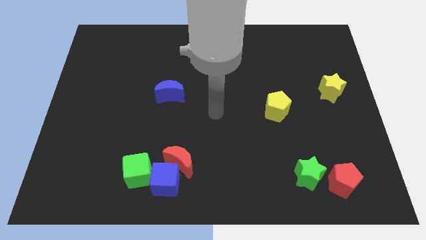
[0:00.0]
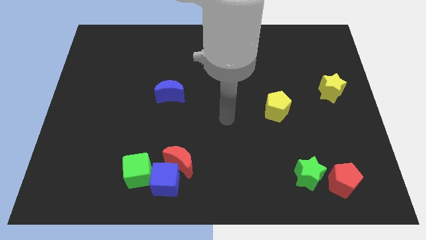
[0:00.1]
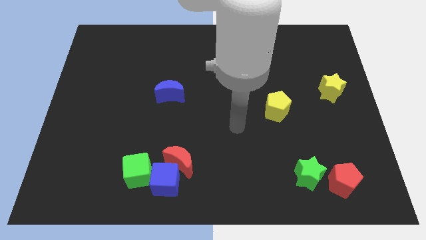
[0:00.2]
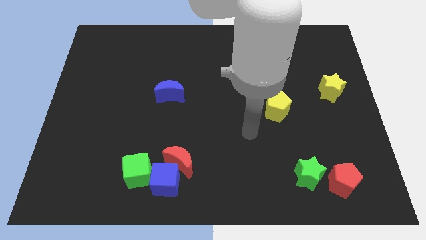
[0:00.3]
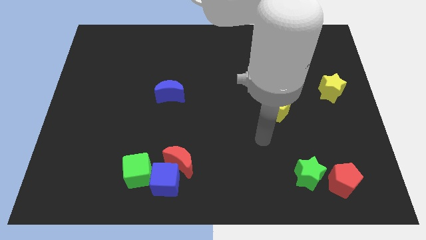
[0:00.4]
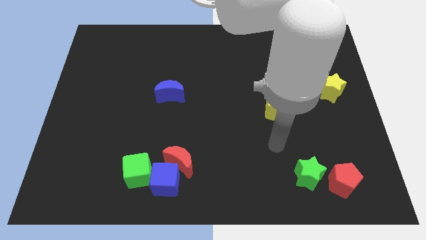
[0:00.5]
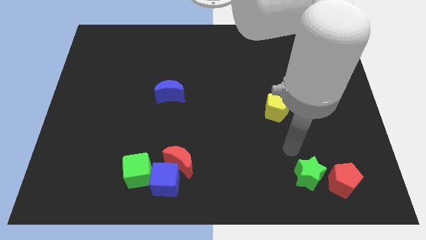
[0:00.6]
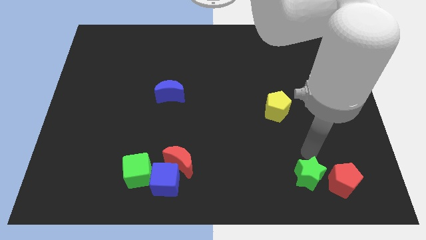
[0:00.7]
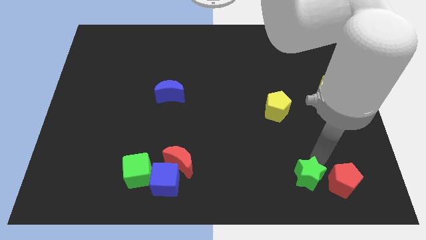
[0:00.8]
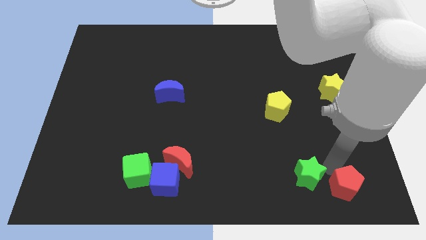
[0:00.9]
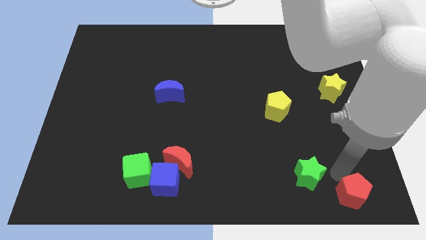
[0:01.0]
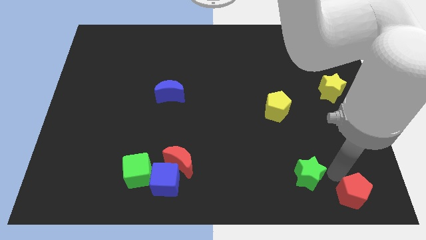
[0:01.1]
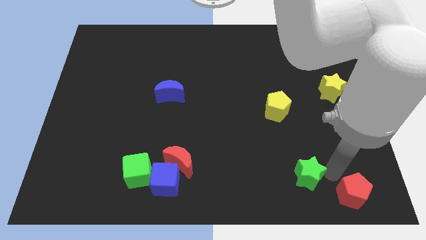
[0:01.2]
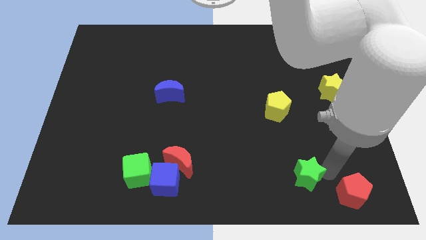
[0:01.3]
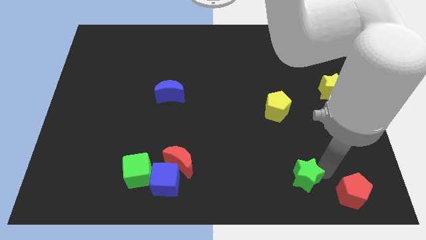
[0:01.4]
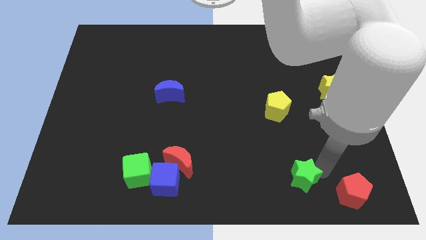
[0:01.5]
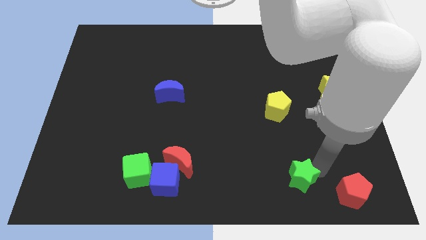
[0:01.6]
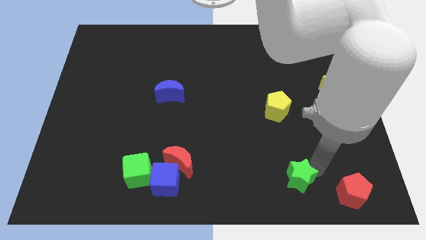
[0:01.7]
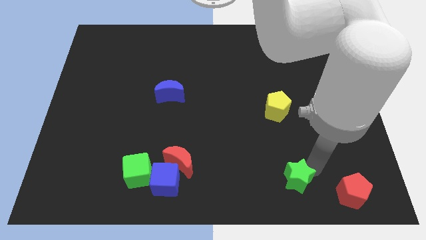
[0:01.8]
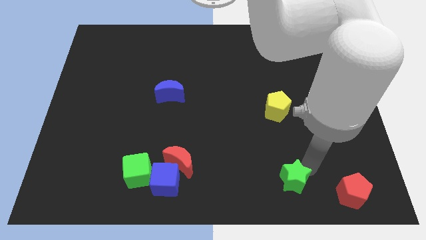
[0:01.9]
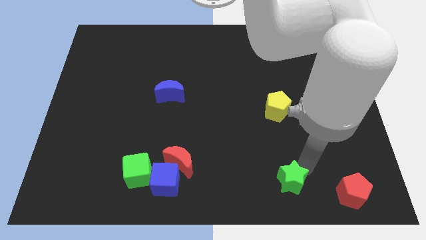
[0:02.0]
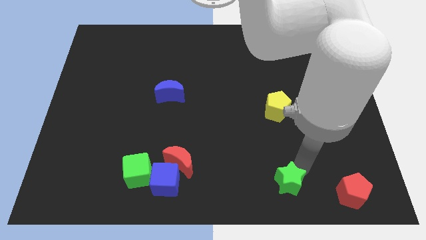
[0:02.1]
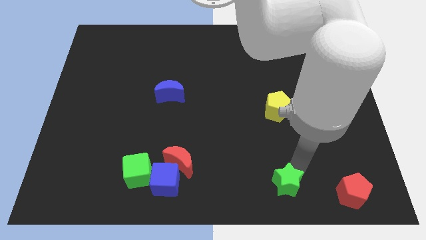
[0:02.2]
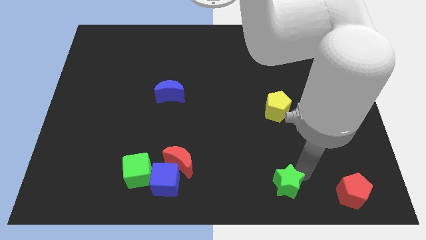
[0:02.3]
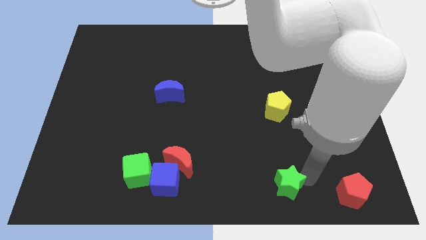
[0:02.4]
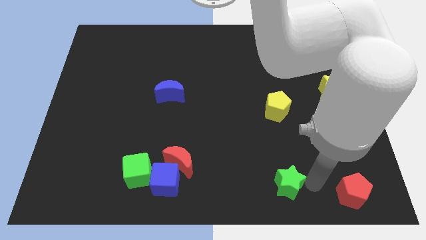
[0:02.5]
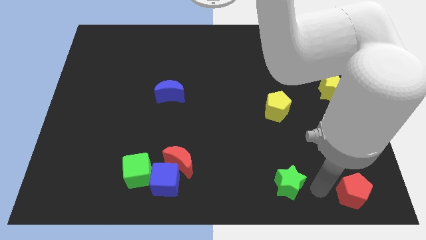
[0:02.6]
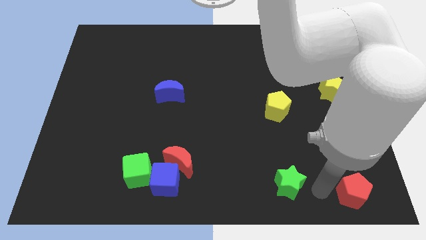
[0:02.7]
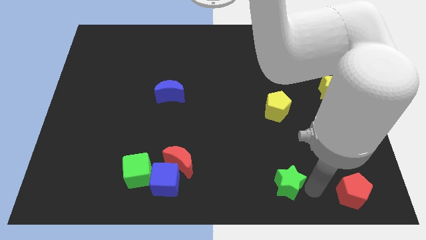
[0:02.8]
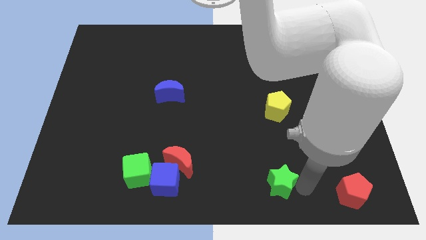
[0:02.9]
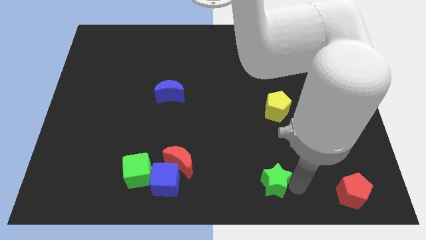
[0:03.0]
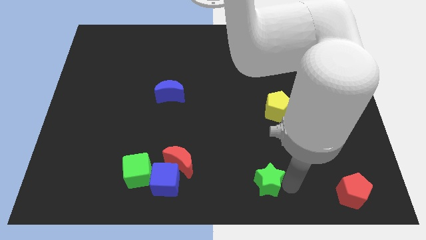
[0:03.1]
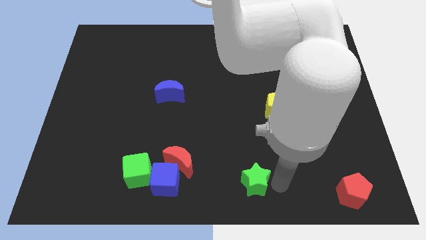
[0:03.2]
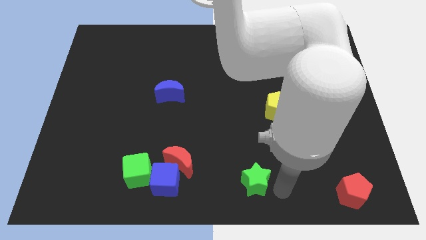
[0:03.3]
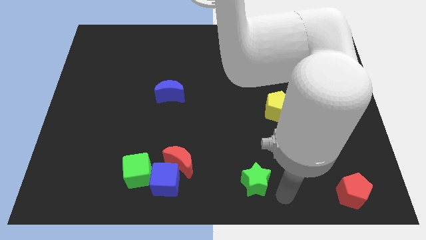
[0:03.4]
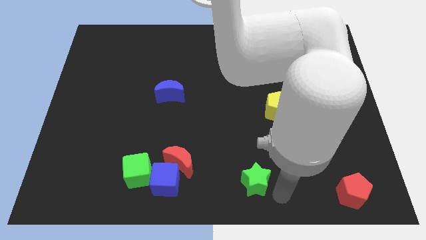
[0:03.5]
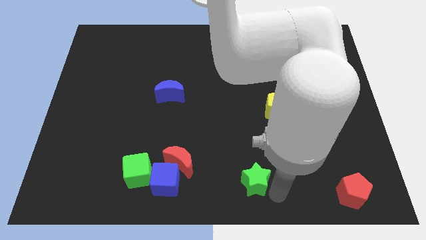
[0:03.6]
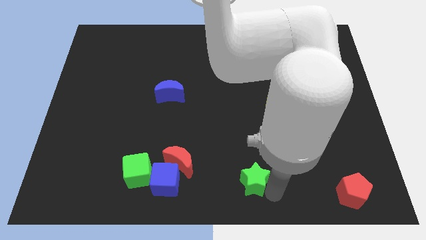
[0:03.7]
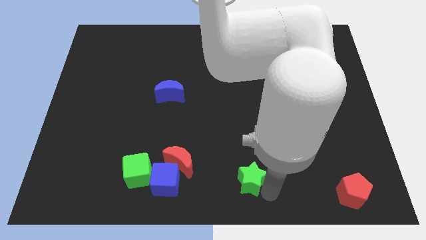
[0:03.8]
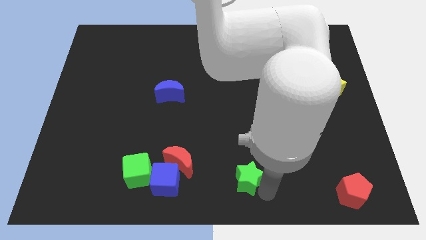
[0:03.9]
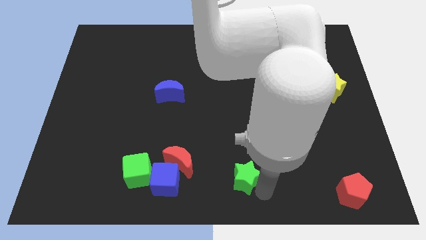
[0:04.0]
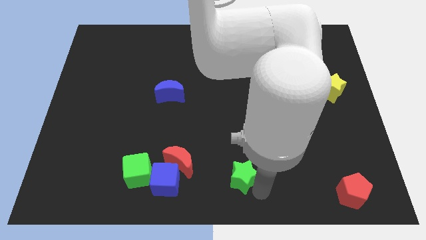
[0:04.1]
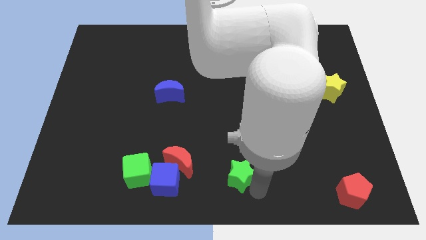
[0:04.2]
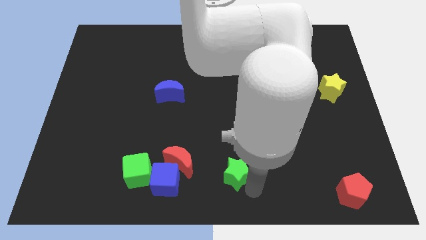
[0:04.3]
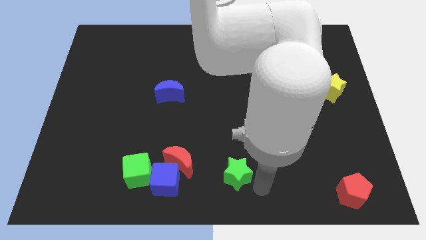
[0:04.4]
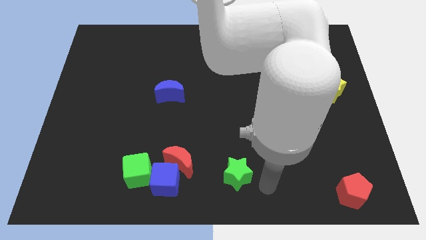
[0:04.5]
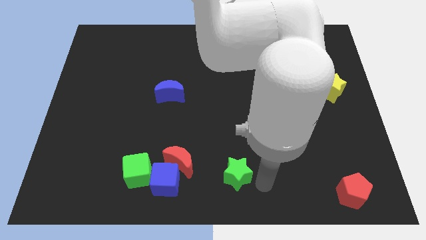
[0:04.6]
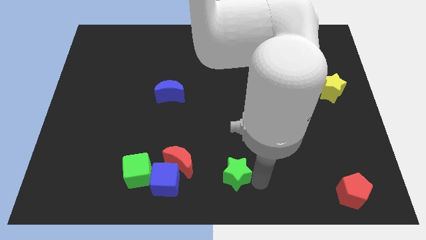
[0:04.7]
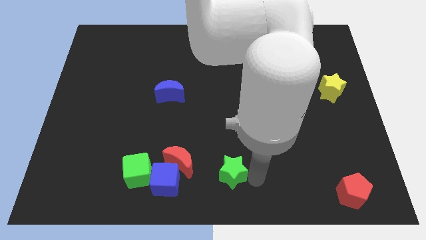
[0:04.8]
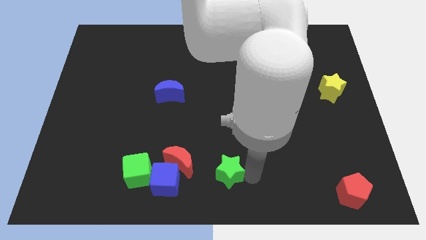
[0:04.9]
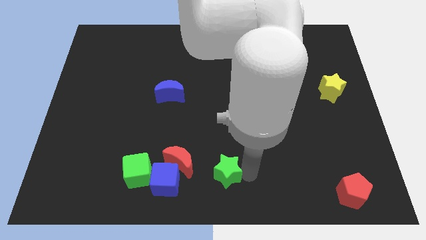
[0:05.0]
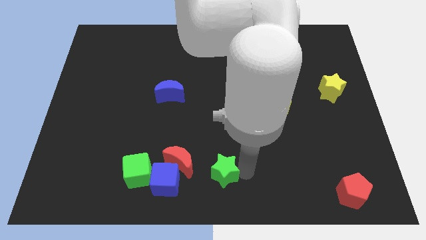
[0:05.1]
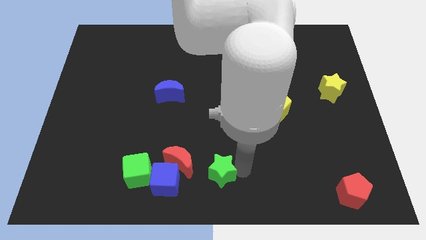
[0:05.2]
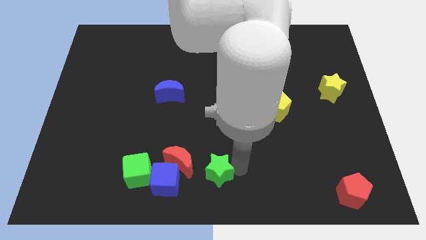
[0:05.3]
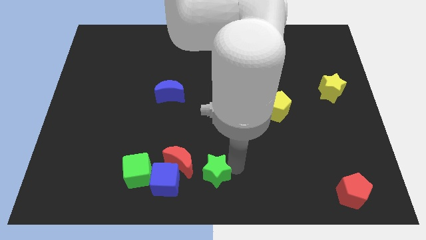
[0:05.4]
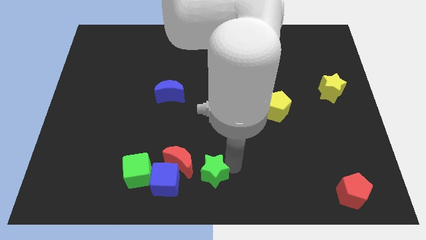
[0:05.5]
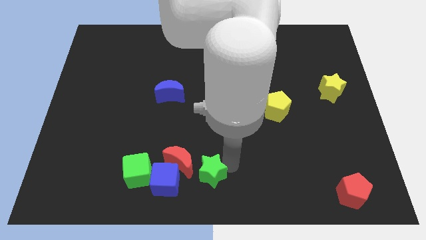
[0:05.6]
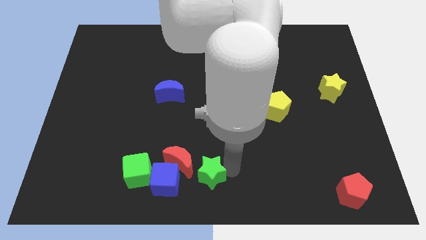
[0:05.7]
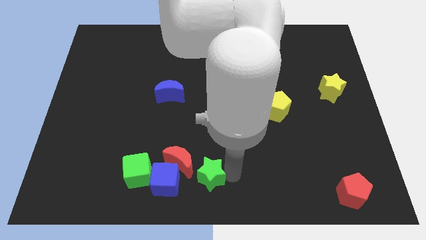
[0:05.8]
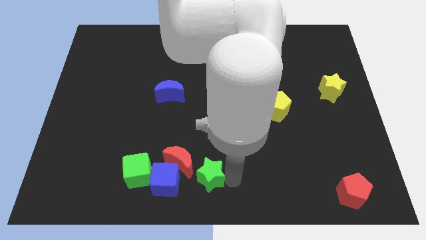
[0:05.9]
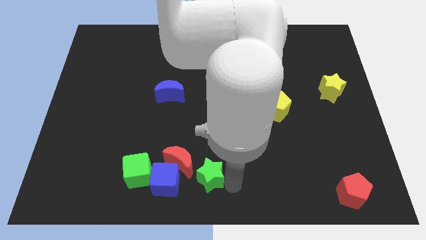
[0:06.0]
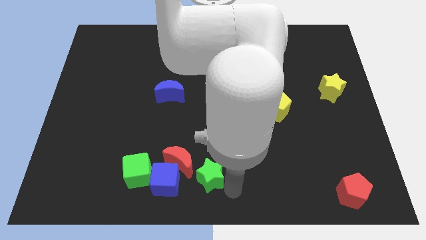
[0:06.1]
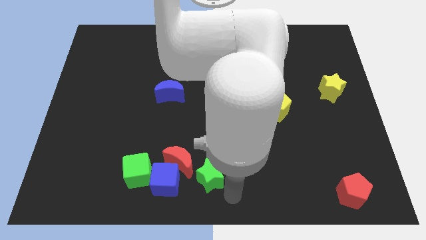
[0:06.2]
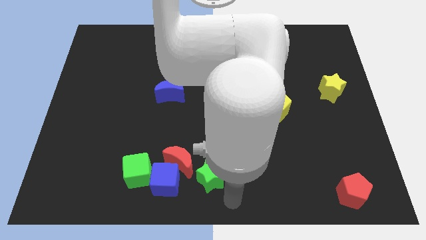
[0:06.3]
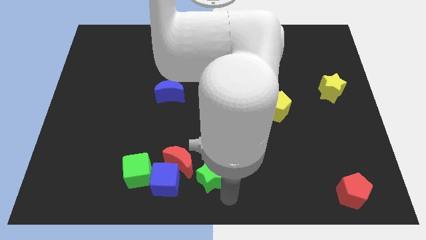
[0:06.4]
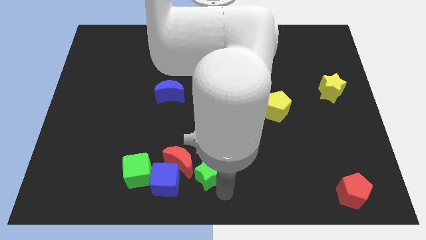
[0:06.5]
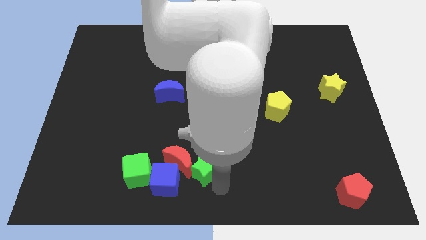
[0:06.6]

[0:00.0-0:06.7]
push the green star close to the red moon

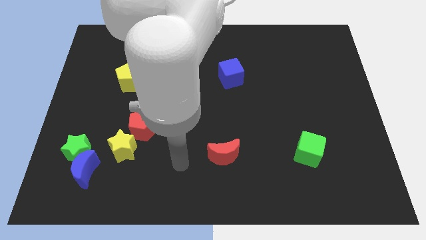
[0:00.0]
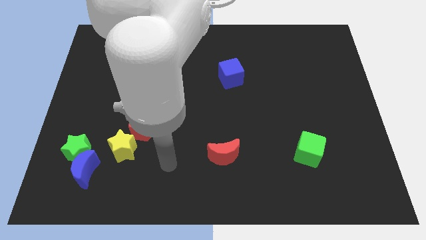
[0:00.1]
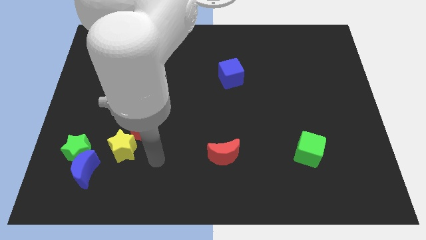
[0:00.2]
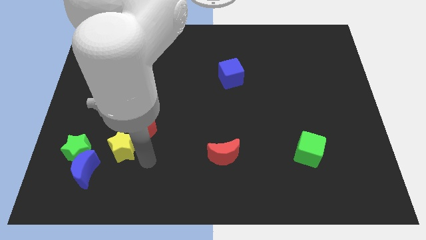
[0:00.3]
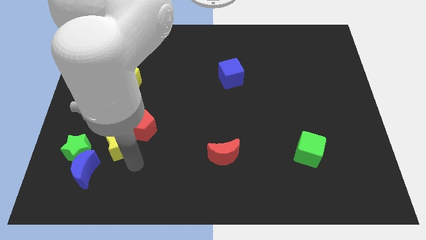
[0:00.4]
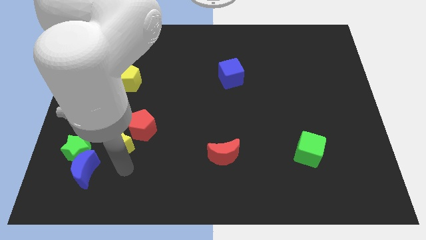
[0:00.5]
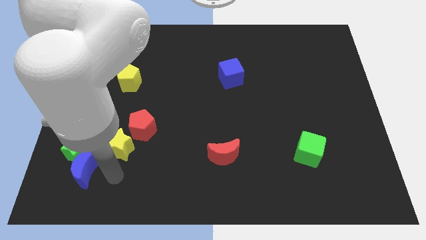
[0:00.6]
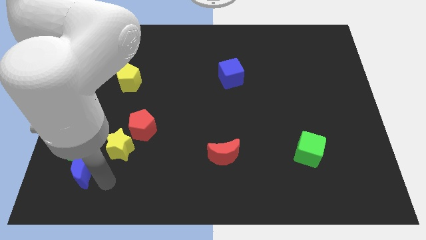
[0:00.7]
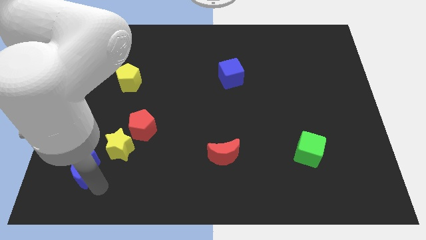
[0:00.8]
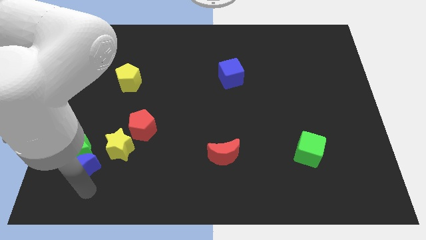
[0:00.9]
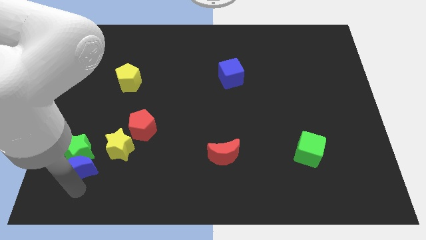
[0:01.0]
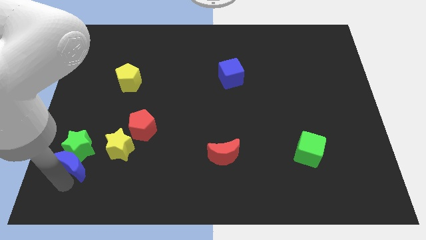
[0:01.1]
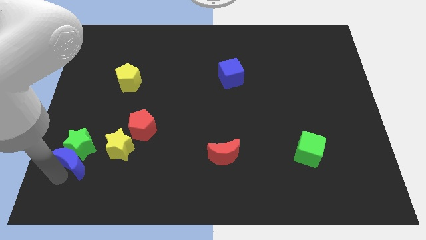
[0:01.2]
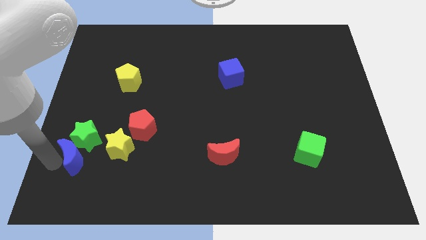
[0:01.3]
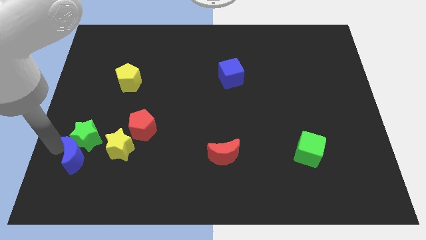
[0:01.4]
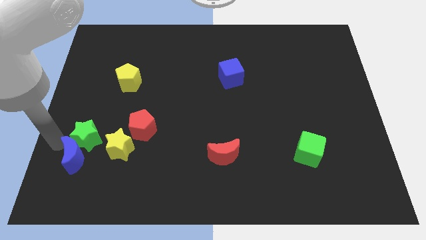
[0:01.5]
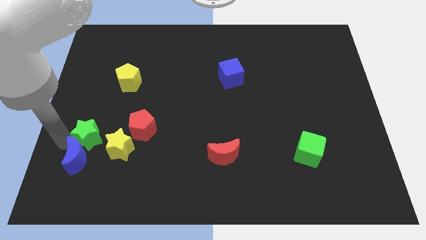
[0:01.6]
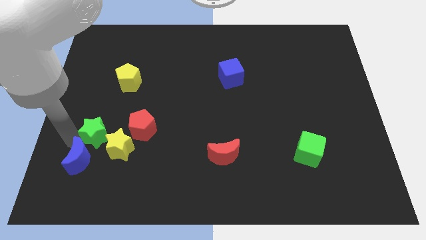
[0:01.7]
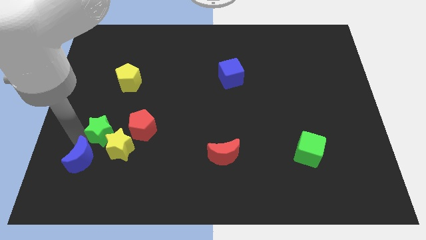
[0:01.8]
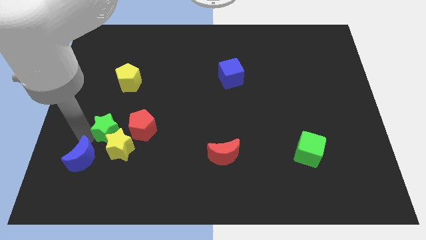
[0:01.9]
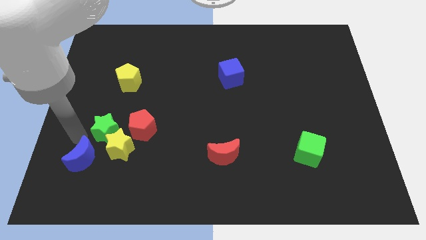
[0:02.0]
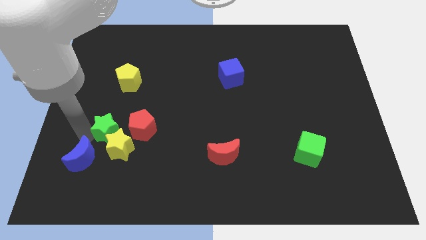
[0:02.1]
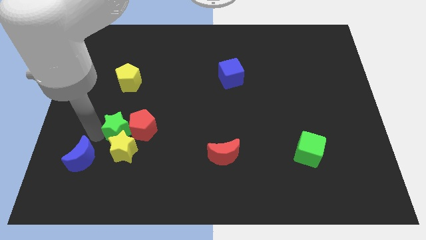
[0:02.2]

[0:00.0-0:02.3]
move the green star close to the red pentagon
